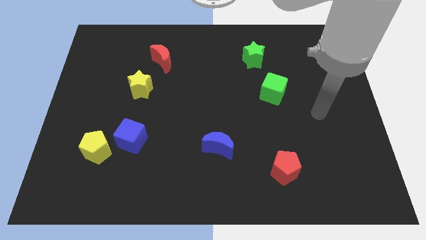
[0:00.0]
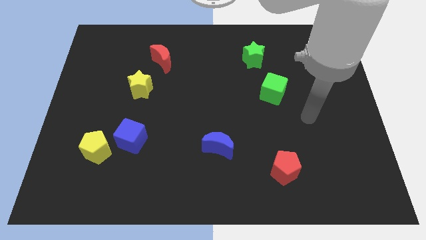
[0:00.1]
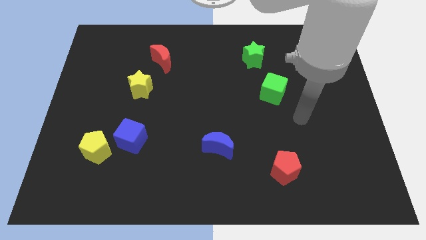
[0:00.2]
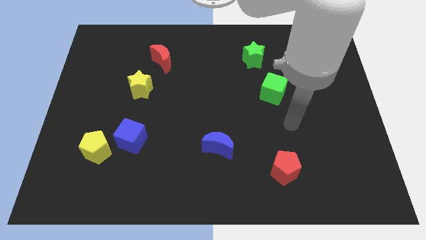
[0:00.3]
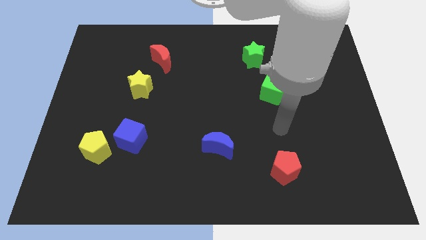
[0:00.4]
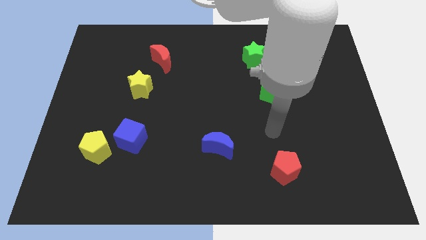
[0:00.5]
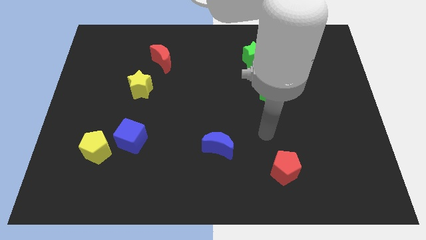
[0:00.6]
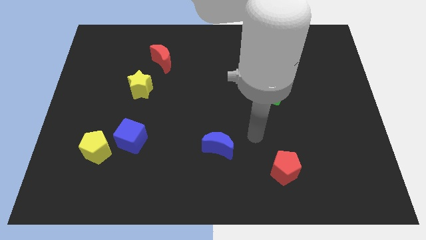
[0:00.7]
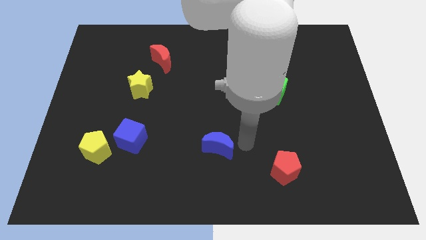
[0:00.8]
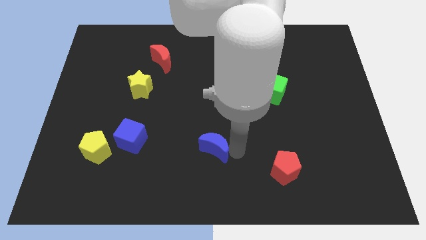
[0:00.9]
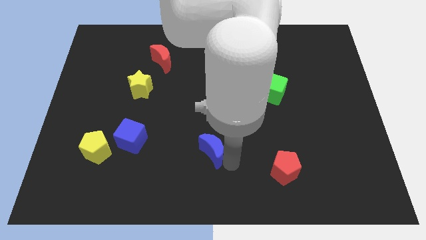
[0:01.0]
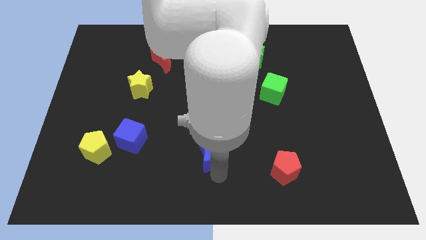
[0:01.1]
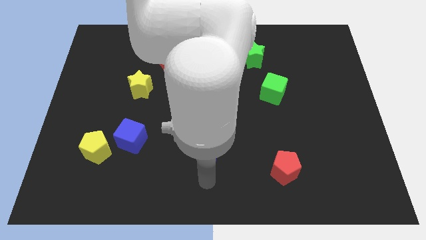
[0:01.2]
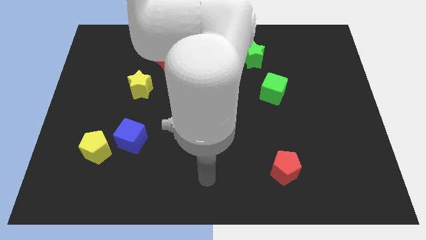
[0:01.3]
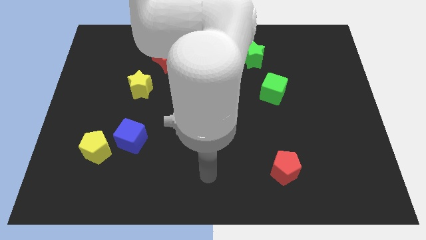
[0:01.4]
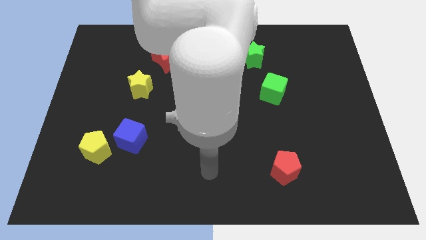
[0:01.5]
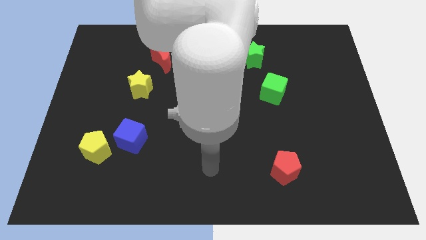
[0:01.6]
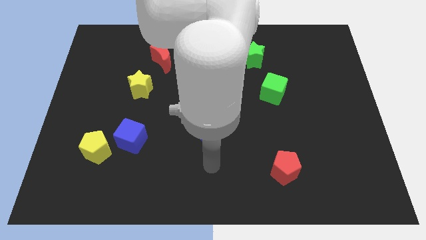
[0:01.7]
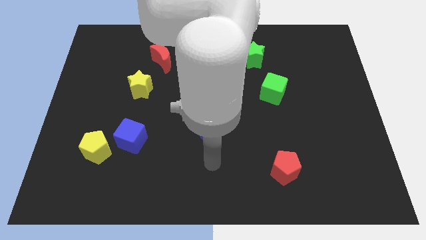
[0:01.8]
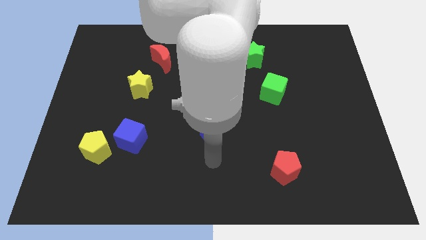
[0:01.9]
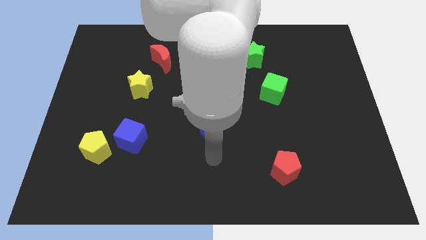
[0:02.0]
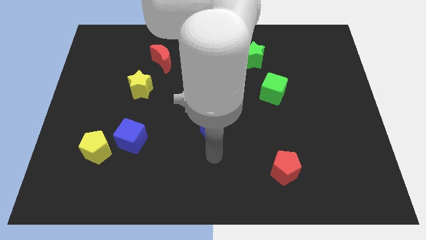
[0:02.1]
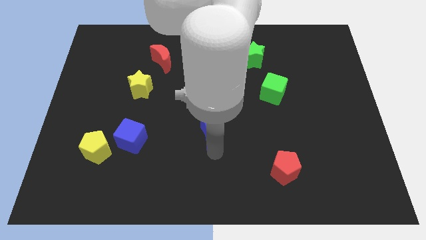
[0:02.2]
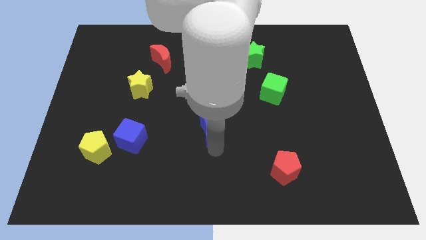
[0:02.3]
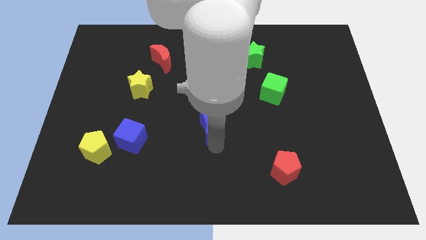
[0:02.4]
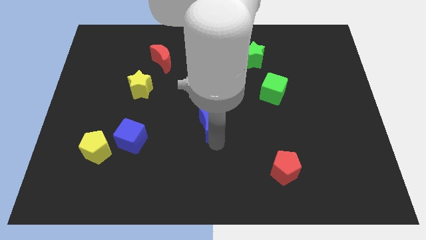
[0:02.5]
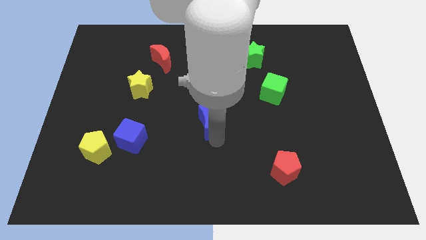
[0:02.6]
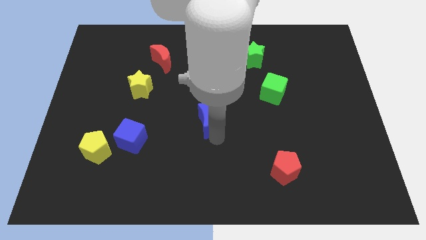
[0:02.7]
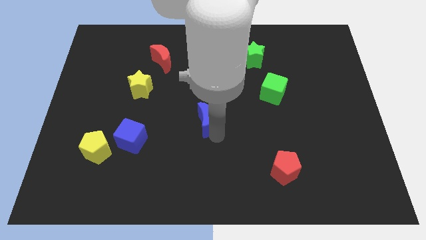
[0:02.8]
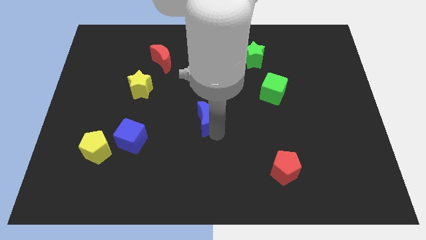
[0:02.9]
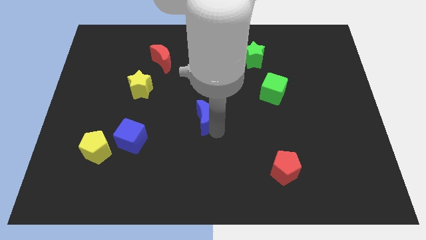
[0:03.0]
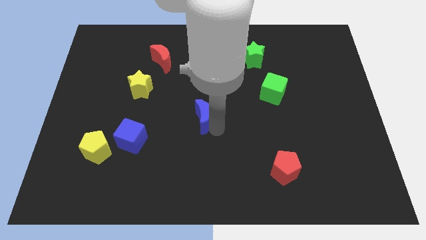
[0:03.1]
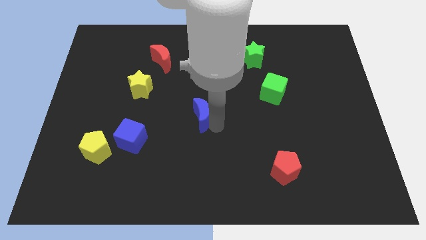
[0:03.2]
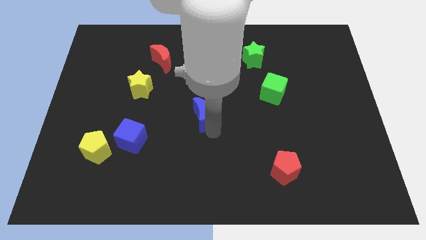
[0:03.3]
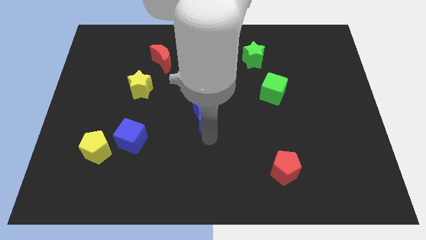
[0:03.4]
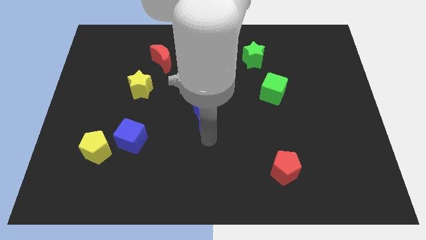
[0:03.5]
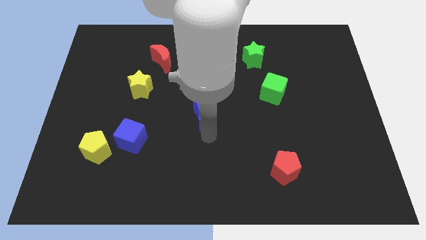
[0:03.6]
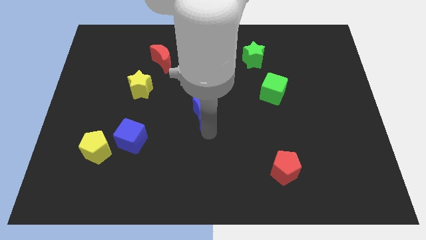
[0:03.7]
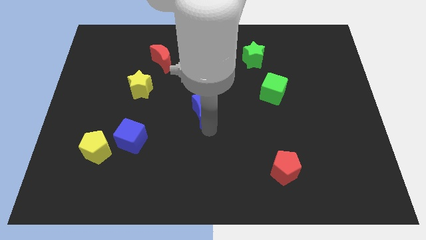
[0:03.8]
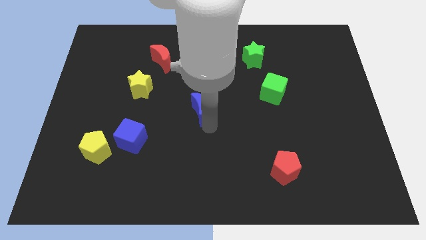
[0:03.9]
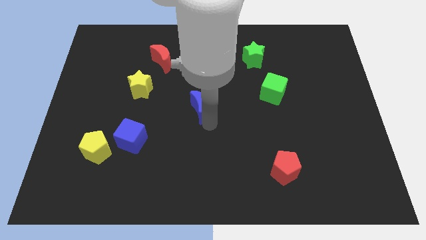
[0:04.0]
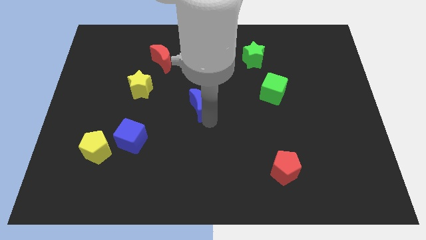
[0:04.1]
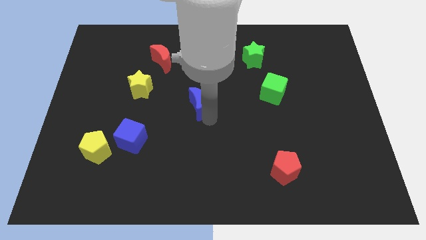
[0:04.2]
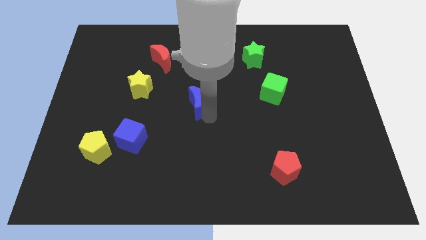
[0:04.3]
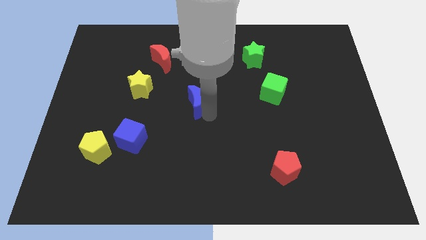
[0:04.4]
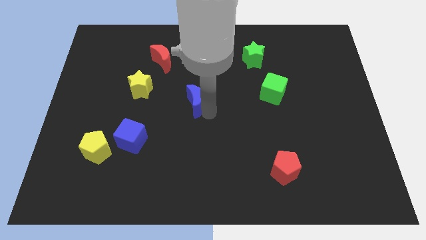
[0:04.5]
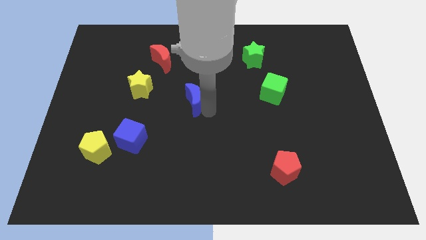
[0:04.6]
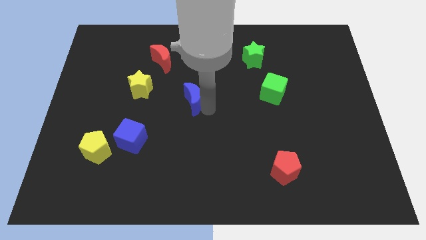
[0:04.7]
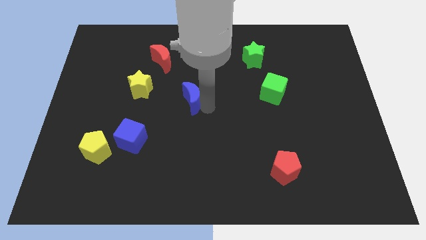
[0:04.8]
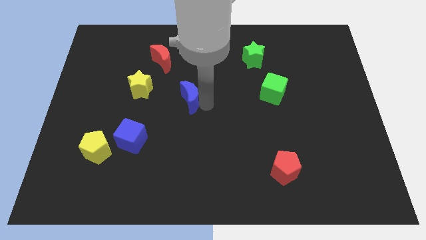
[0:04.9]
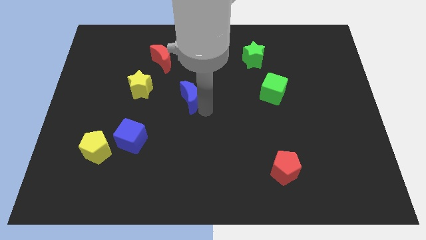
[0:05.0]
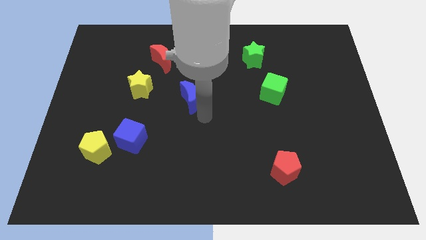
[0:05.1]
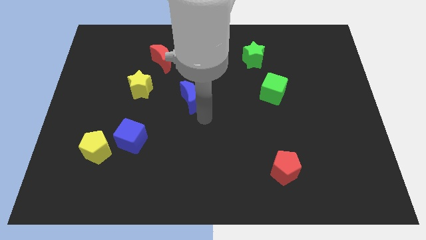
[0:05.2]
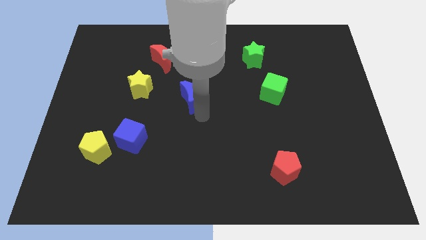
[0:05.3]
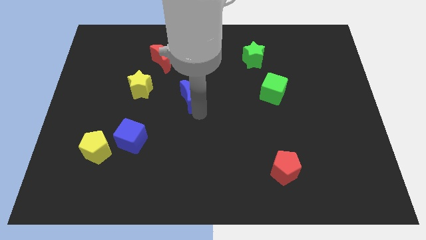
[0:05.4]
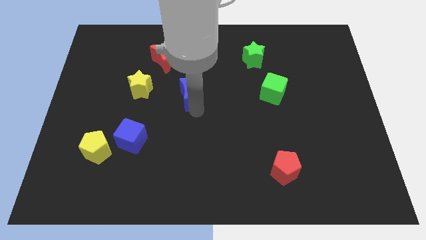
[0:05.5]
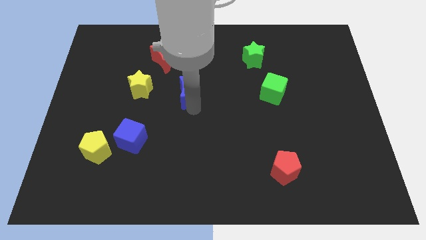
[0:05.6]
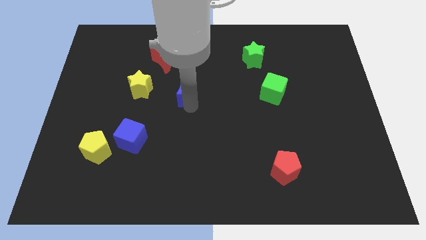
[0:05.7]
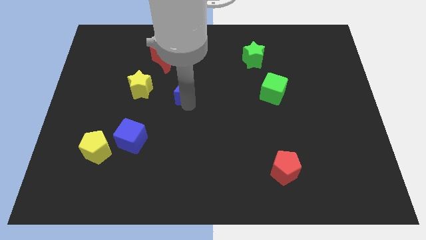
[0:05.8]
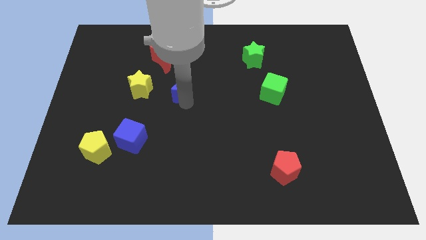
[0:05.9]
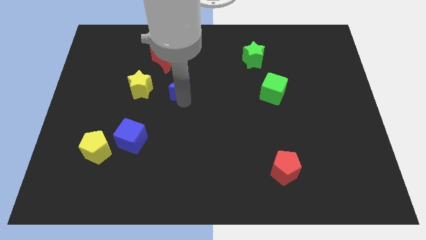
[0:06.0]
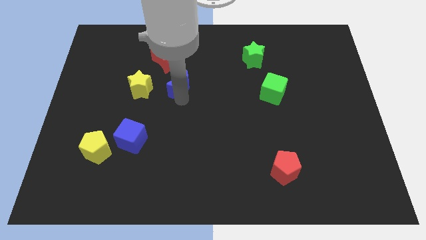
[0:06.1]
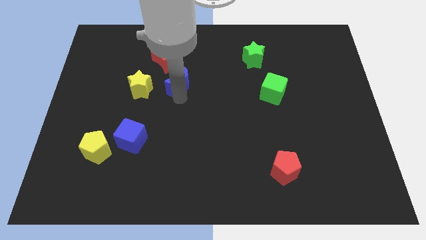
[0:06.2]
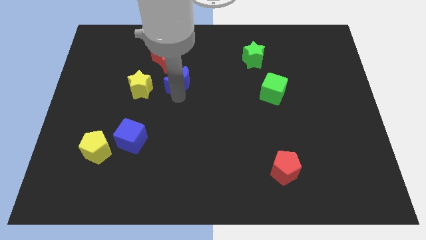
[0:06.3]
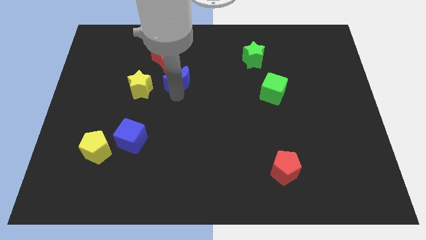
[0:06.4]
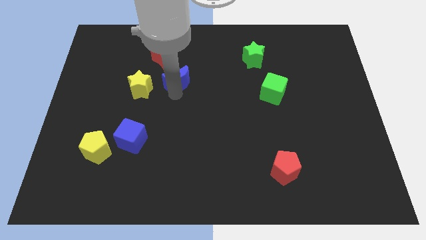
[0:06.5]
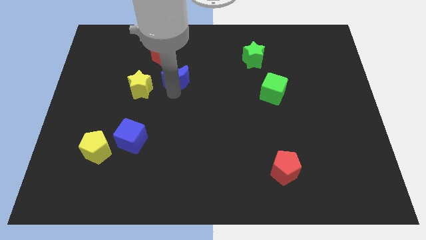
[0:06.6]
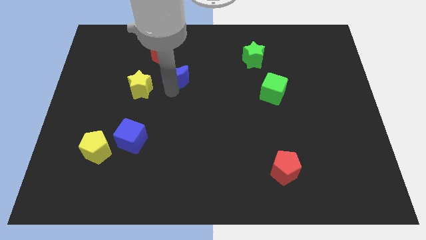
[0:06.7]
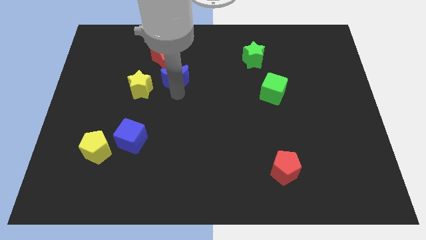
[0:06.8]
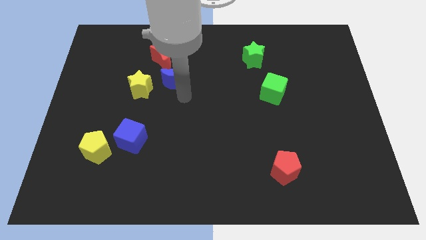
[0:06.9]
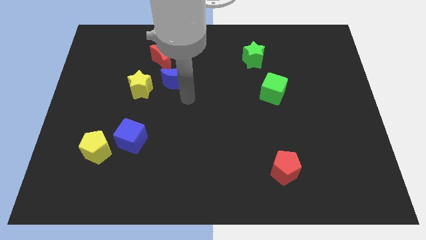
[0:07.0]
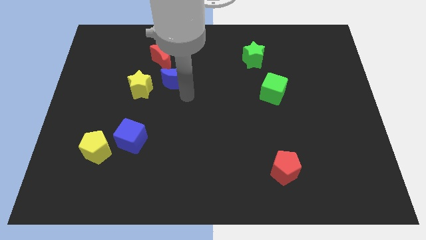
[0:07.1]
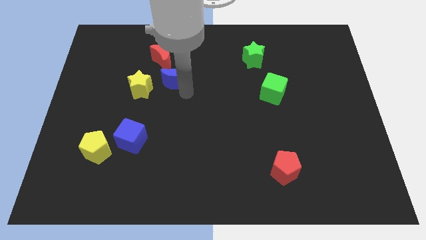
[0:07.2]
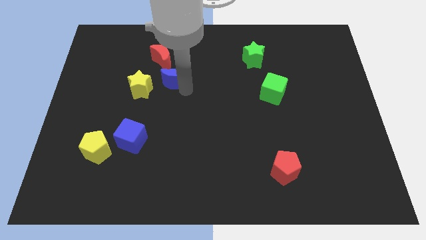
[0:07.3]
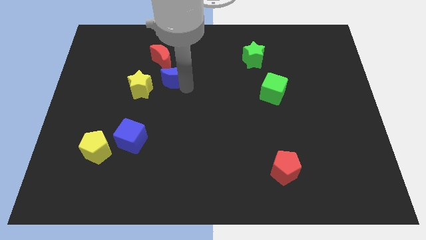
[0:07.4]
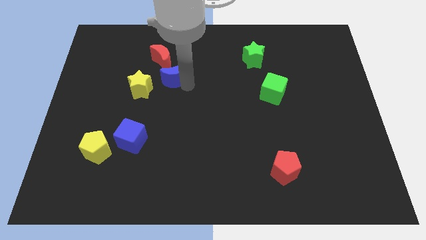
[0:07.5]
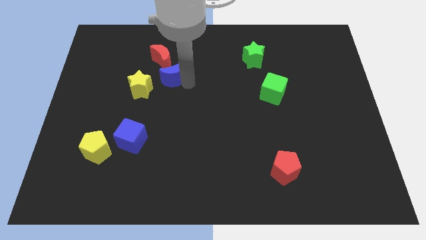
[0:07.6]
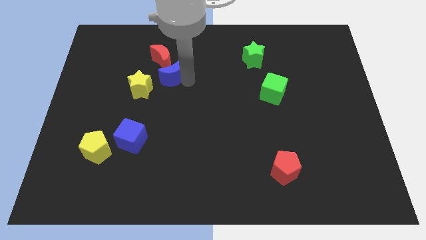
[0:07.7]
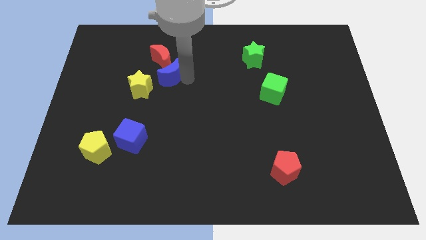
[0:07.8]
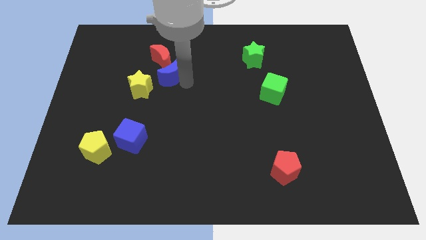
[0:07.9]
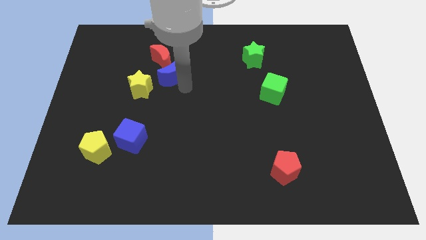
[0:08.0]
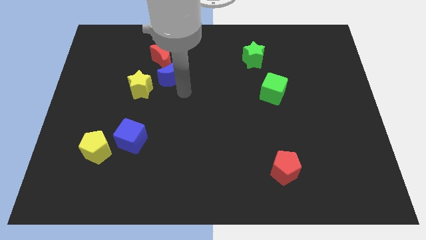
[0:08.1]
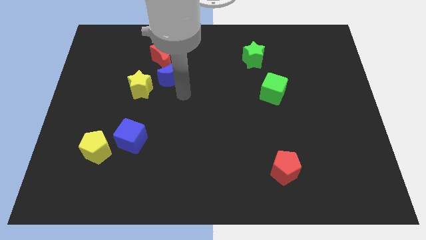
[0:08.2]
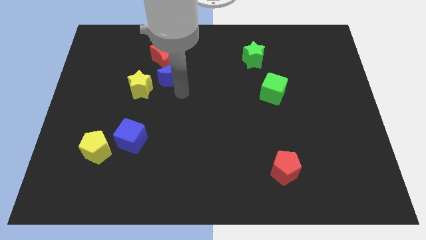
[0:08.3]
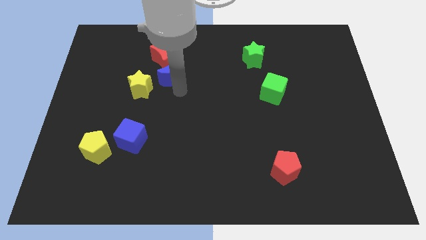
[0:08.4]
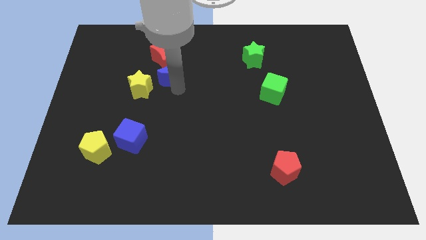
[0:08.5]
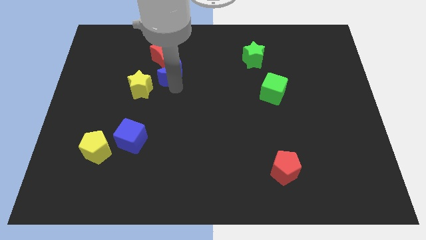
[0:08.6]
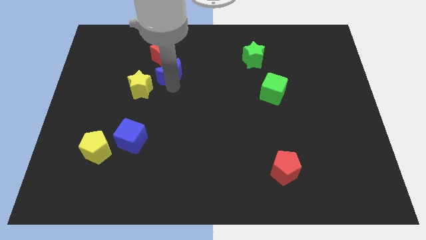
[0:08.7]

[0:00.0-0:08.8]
slide the blue moon towards the red moon
